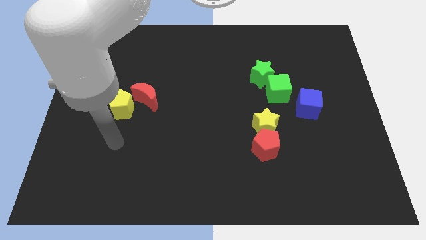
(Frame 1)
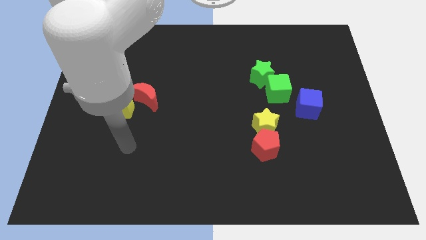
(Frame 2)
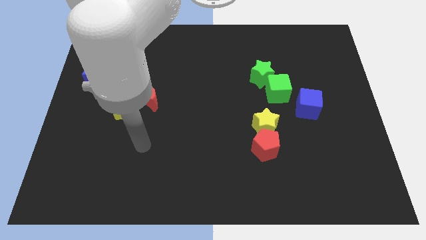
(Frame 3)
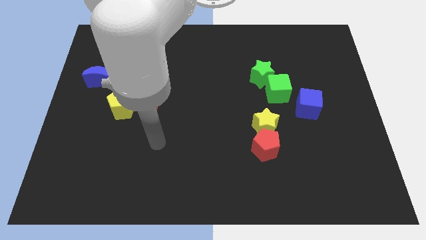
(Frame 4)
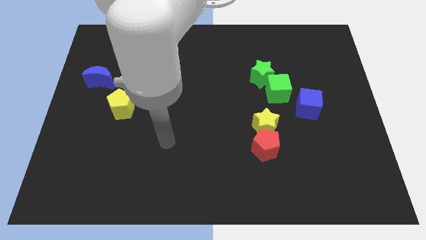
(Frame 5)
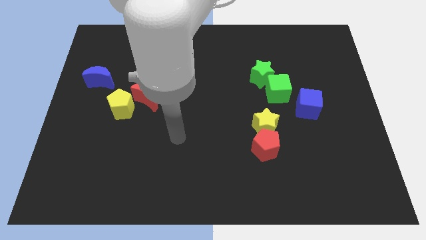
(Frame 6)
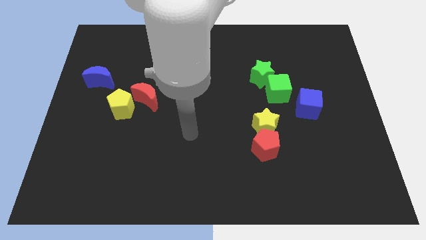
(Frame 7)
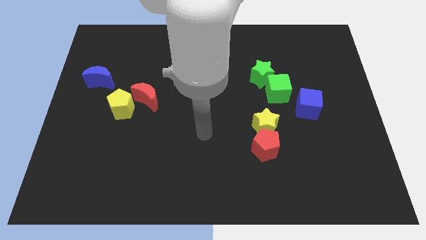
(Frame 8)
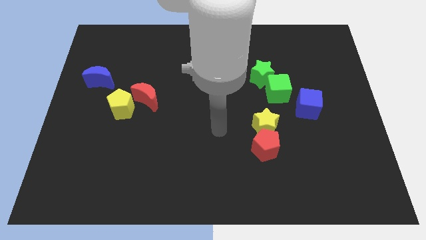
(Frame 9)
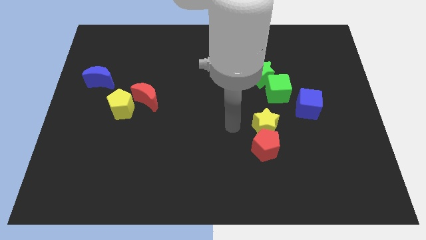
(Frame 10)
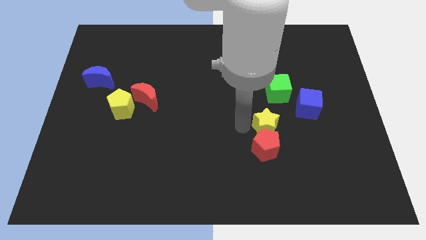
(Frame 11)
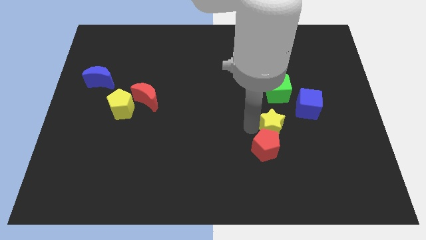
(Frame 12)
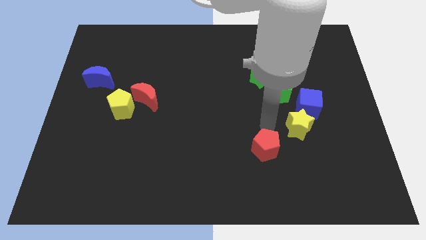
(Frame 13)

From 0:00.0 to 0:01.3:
pull the red pentagon apart from the yellow star

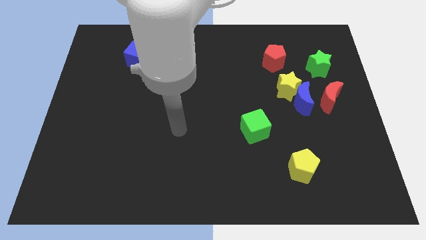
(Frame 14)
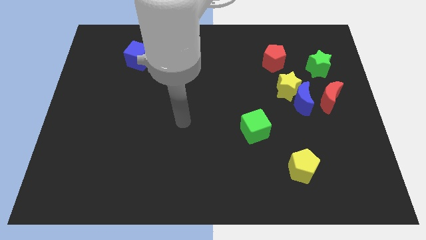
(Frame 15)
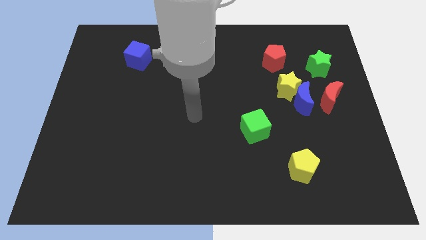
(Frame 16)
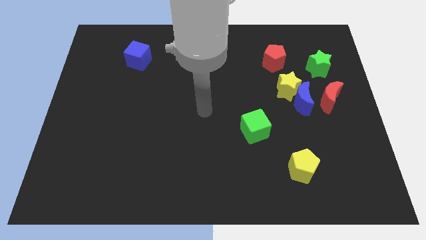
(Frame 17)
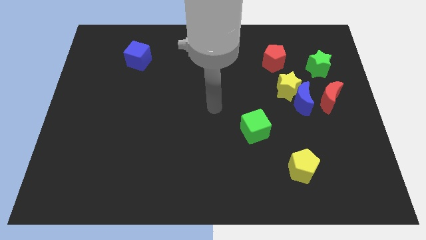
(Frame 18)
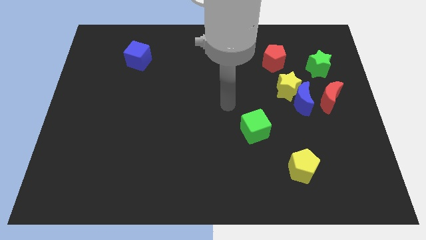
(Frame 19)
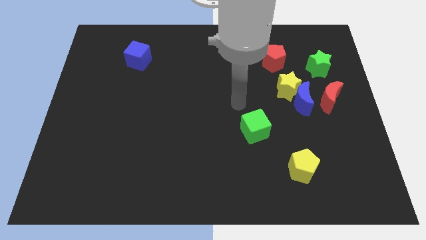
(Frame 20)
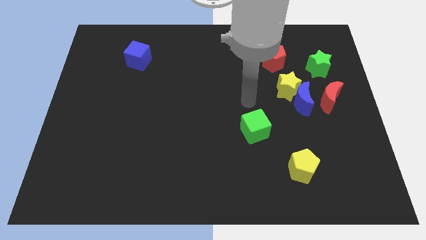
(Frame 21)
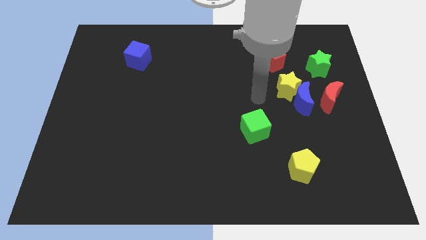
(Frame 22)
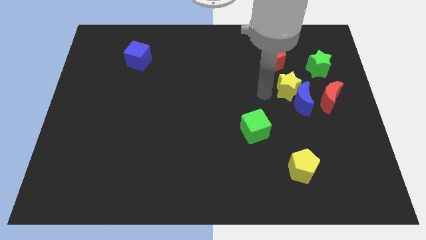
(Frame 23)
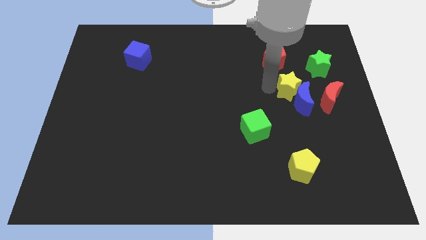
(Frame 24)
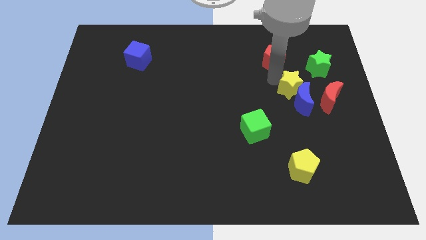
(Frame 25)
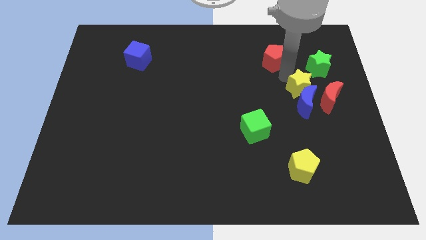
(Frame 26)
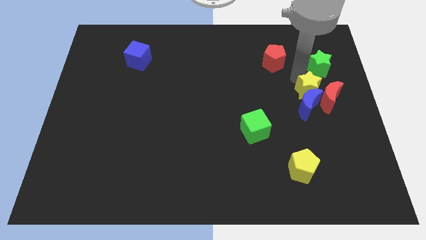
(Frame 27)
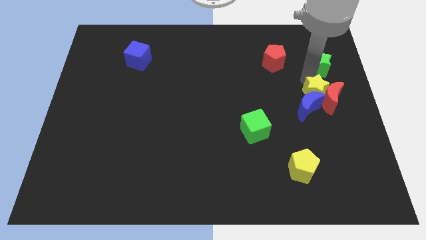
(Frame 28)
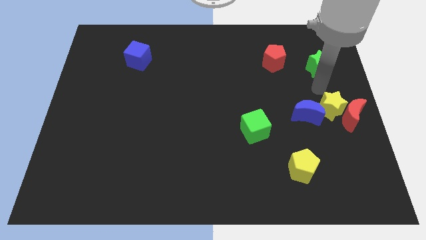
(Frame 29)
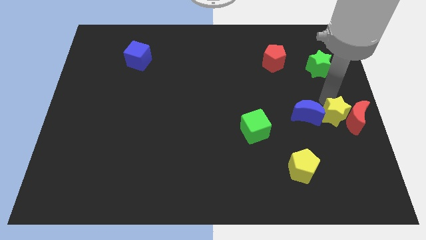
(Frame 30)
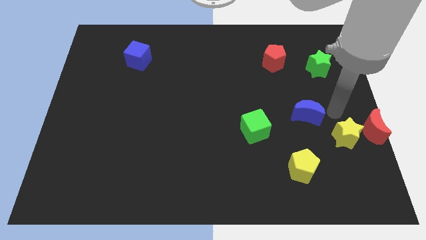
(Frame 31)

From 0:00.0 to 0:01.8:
move the blue moon away from the yellow star and red moon

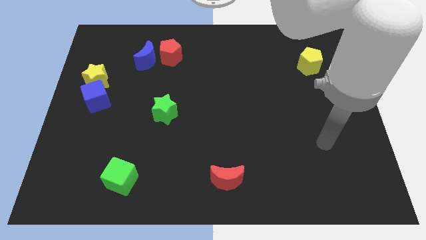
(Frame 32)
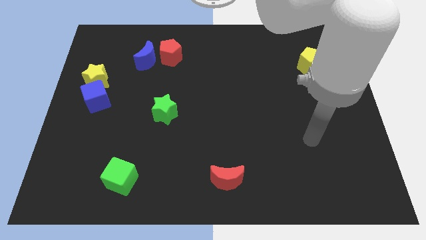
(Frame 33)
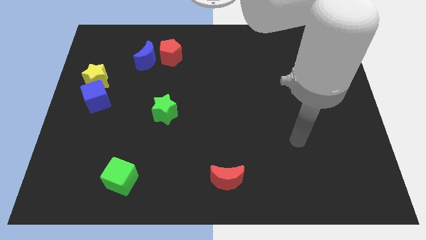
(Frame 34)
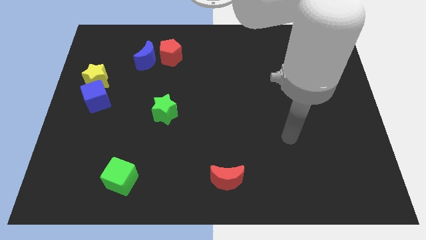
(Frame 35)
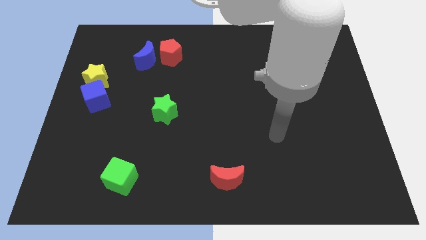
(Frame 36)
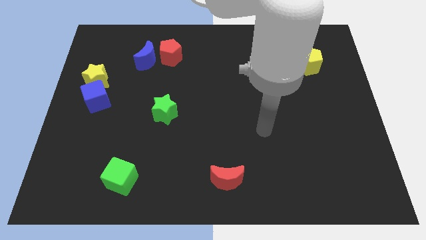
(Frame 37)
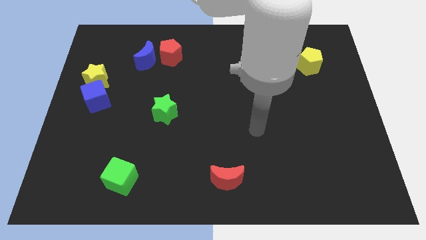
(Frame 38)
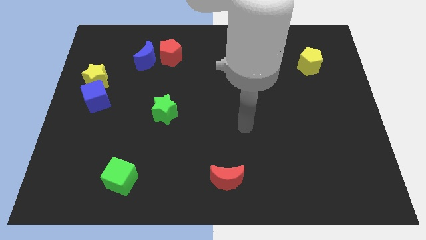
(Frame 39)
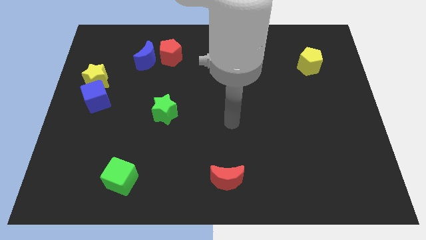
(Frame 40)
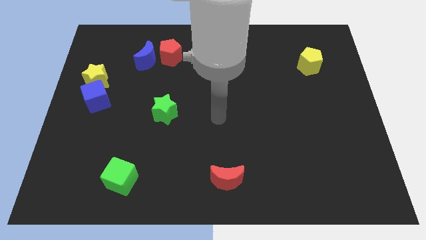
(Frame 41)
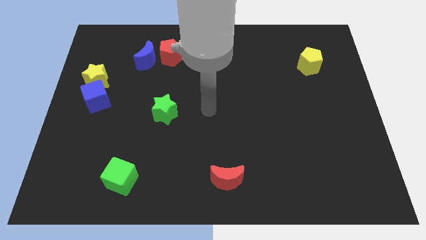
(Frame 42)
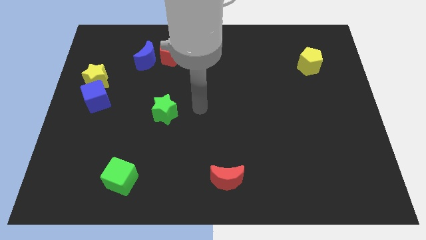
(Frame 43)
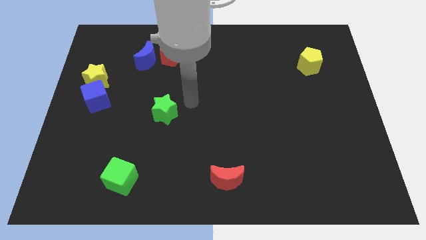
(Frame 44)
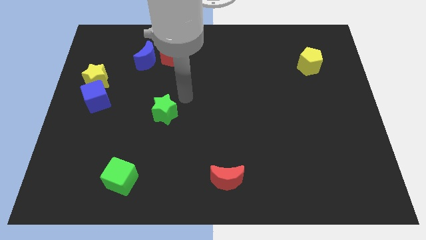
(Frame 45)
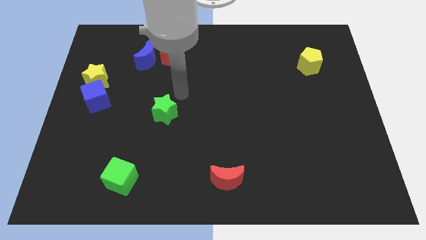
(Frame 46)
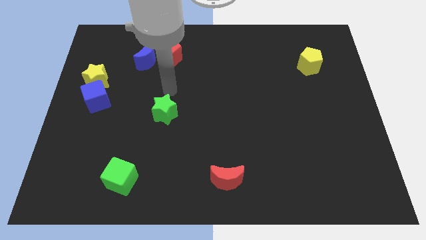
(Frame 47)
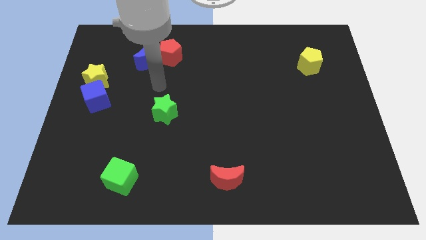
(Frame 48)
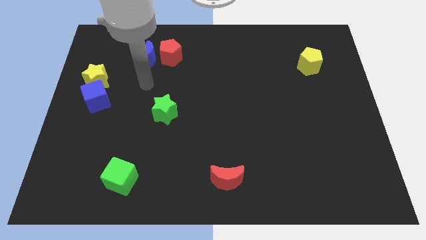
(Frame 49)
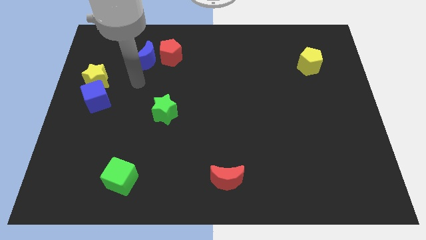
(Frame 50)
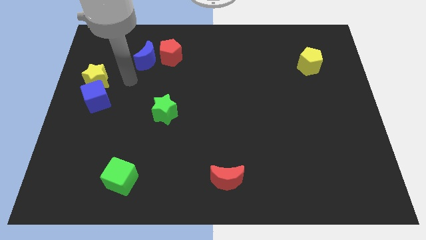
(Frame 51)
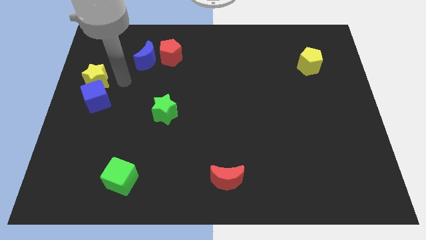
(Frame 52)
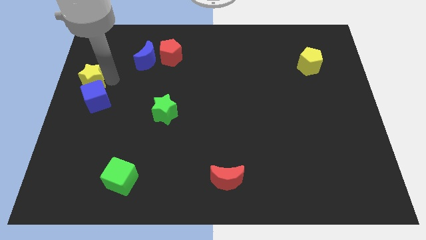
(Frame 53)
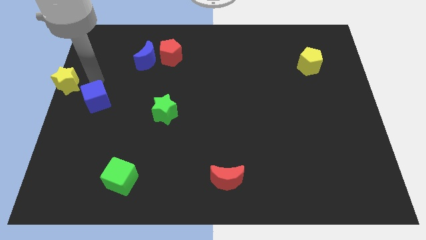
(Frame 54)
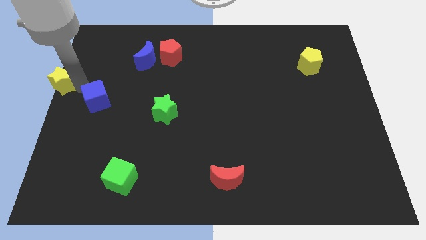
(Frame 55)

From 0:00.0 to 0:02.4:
pull the blue cube apart from the yellow star

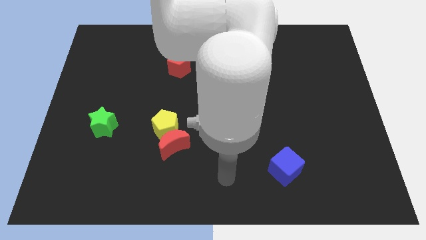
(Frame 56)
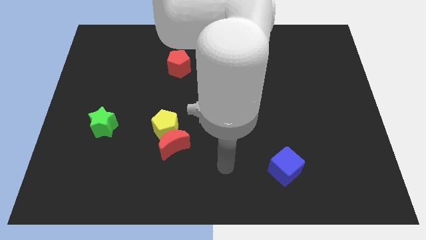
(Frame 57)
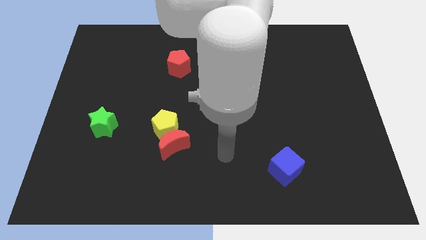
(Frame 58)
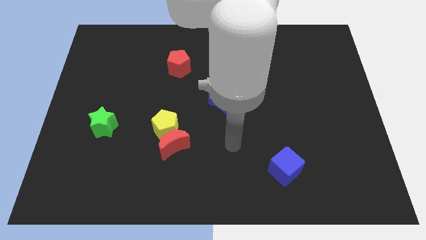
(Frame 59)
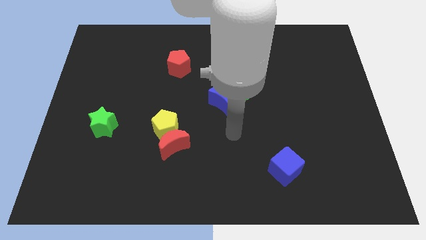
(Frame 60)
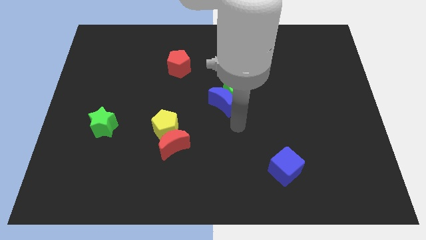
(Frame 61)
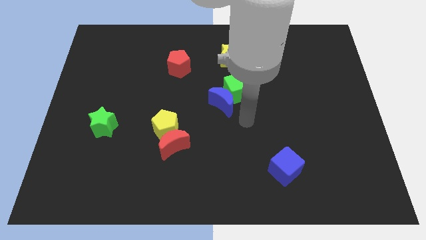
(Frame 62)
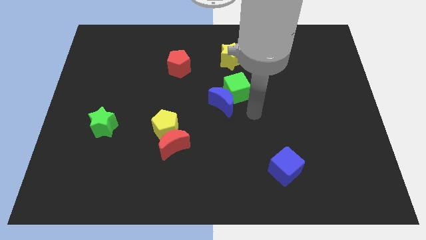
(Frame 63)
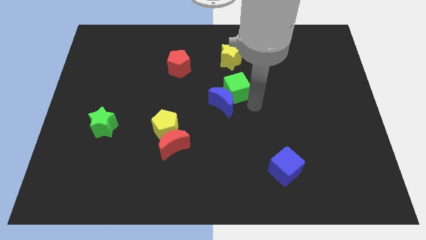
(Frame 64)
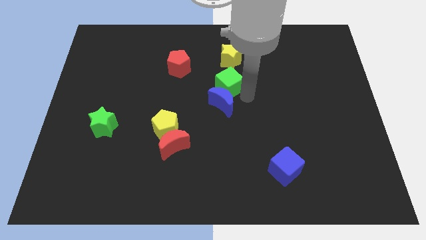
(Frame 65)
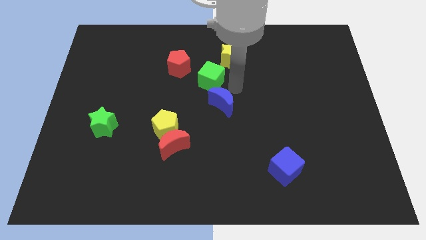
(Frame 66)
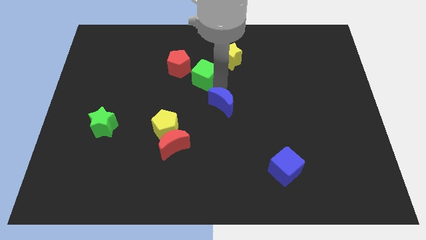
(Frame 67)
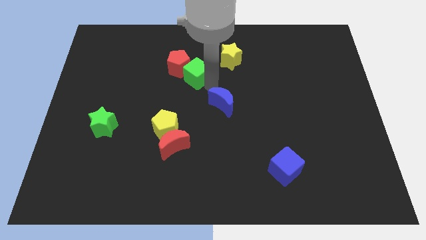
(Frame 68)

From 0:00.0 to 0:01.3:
pull the blue moon apart from the green cube

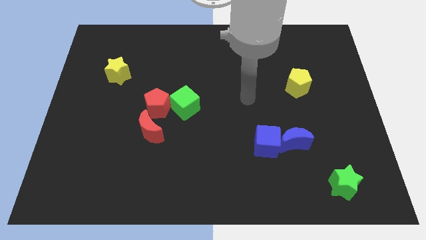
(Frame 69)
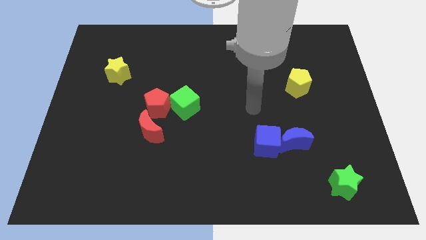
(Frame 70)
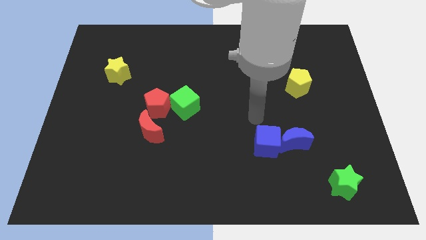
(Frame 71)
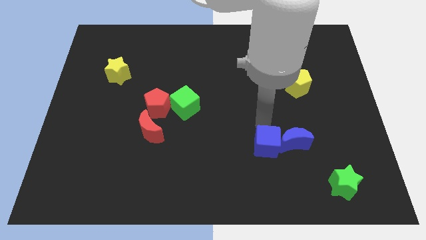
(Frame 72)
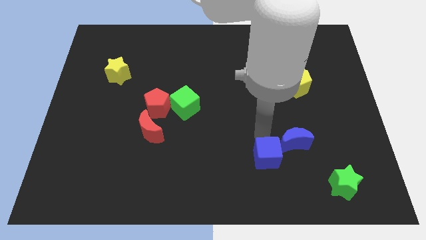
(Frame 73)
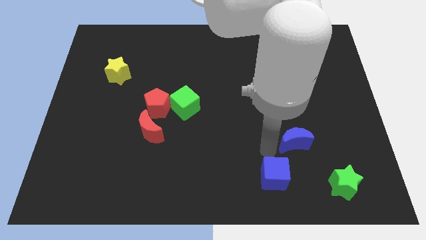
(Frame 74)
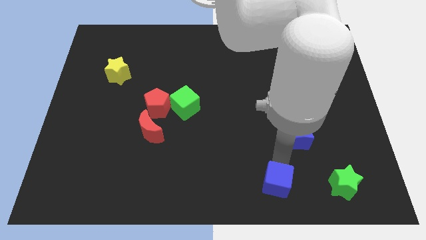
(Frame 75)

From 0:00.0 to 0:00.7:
pull the blue moon apart from the blue cube

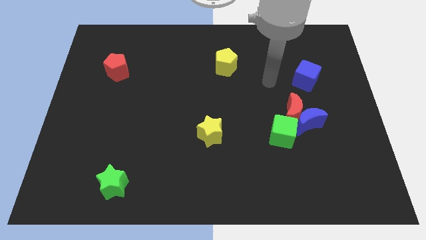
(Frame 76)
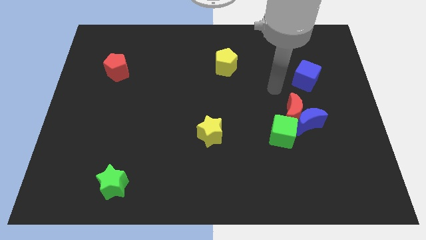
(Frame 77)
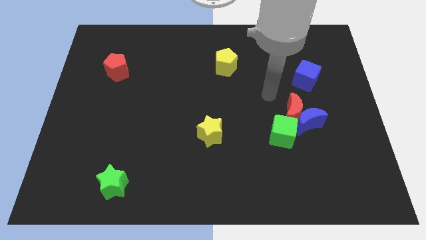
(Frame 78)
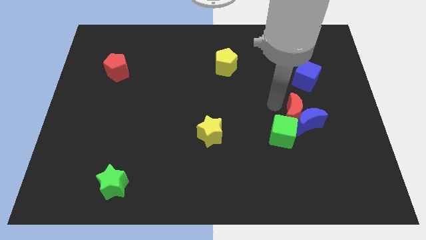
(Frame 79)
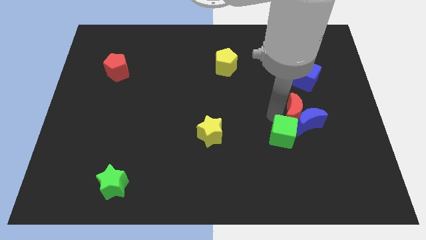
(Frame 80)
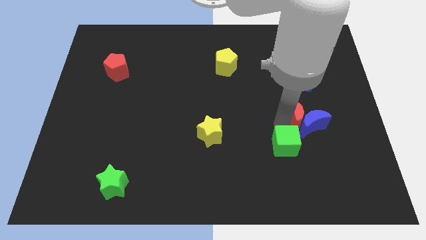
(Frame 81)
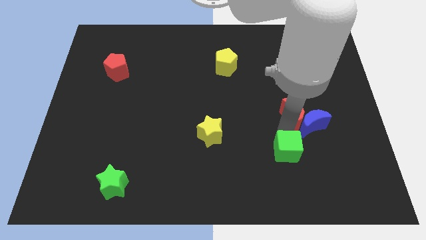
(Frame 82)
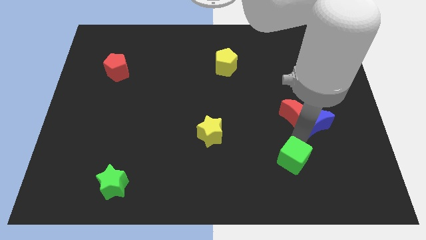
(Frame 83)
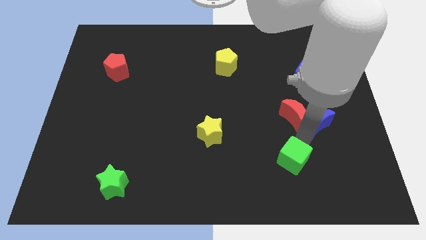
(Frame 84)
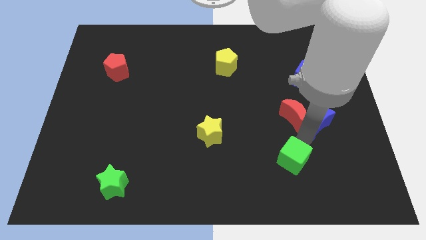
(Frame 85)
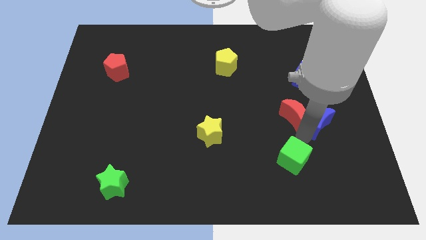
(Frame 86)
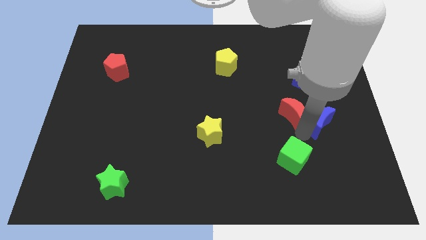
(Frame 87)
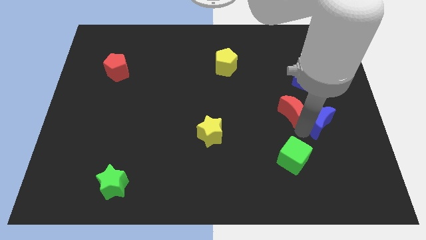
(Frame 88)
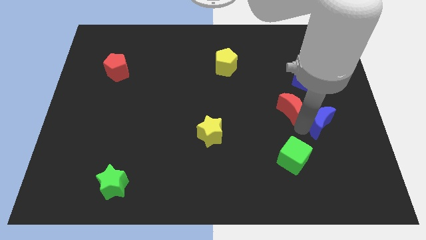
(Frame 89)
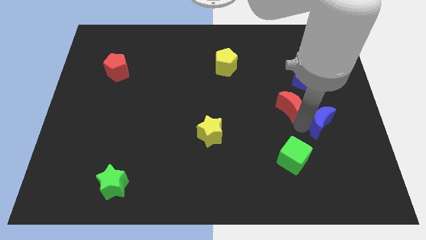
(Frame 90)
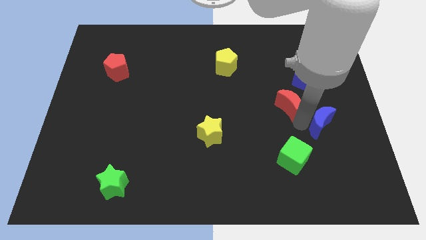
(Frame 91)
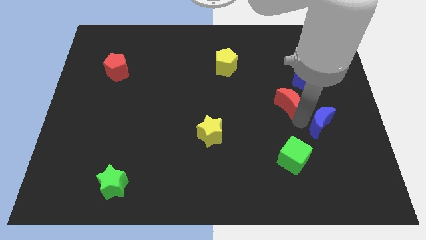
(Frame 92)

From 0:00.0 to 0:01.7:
separate the red moon from the blue moon and green cube
